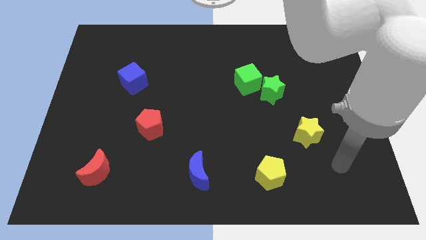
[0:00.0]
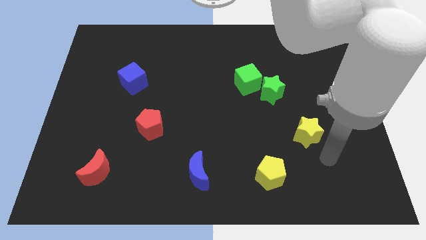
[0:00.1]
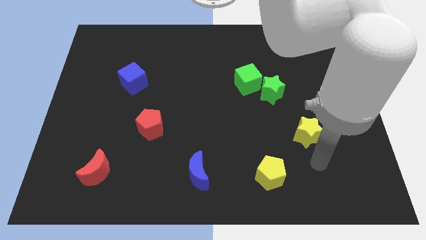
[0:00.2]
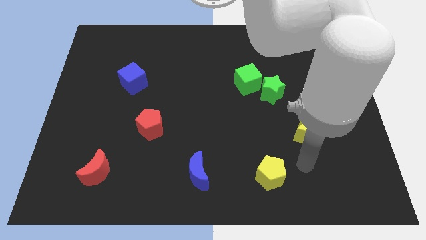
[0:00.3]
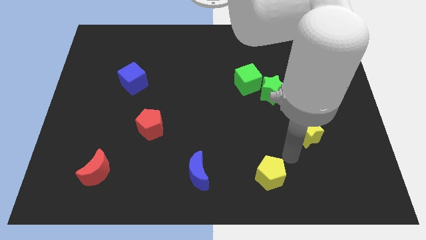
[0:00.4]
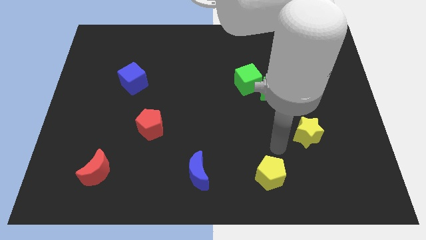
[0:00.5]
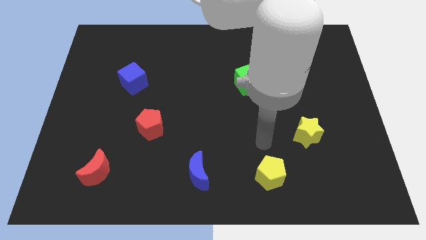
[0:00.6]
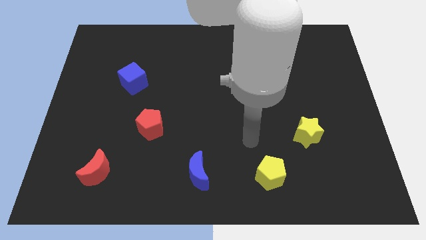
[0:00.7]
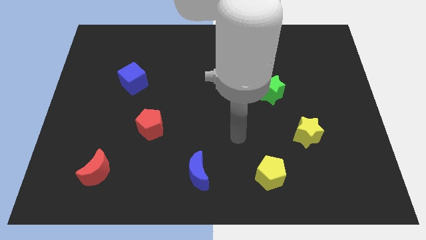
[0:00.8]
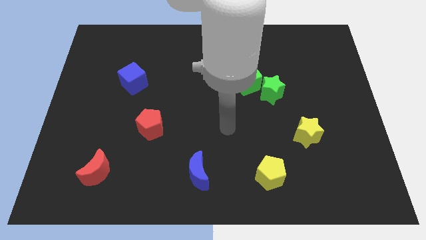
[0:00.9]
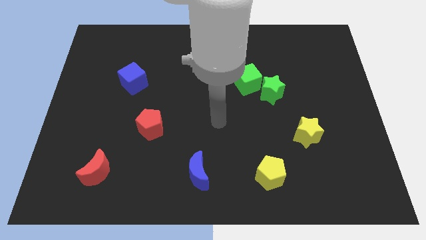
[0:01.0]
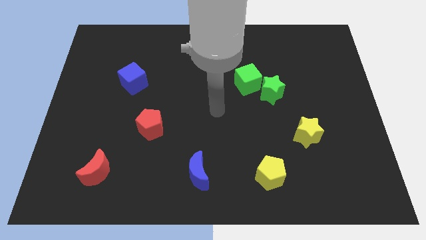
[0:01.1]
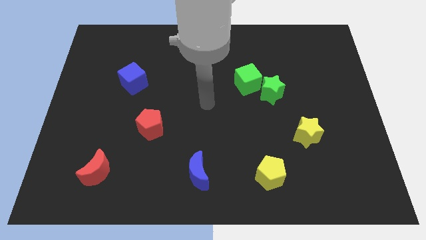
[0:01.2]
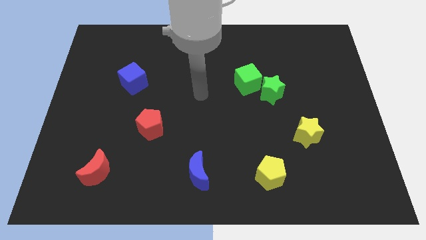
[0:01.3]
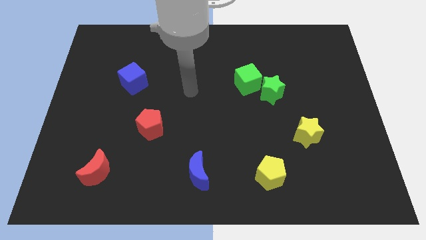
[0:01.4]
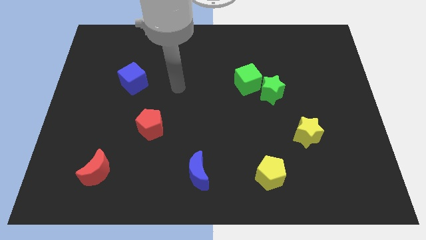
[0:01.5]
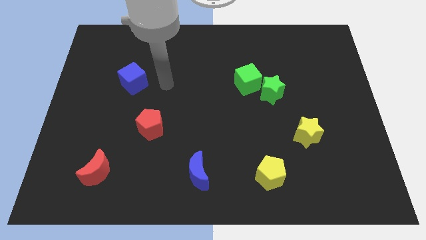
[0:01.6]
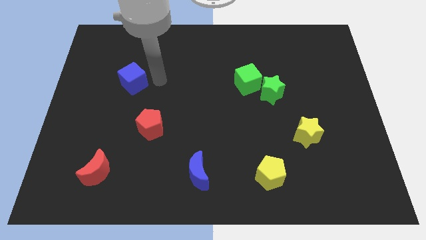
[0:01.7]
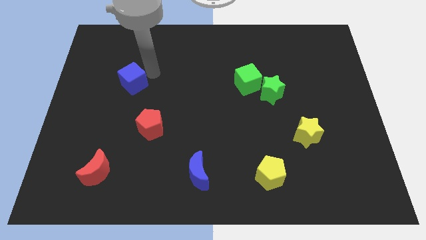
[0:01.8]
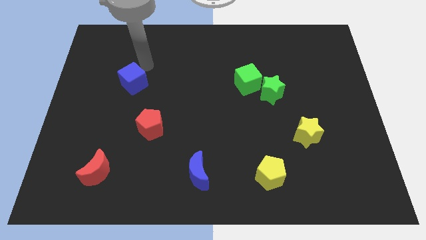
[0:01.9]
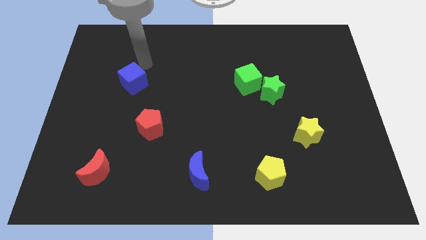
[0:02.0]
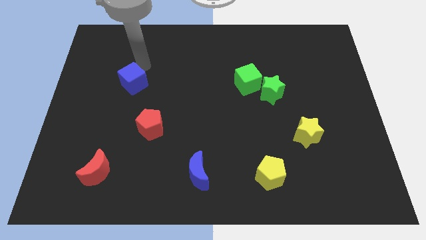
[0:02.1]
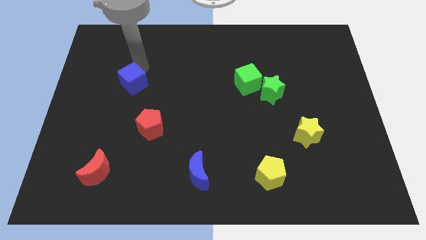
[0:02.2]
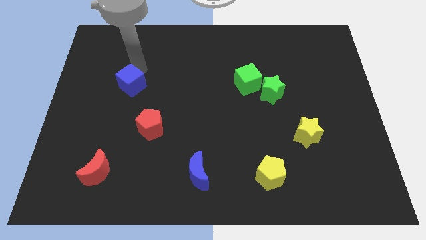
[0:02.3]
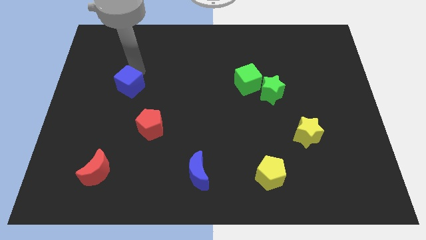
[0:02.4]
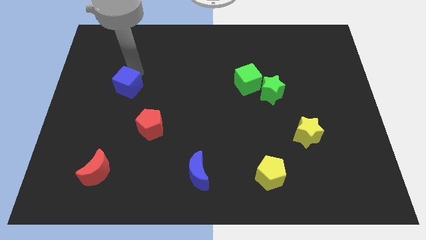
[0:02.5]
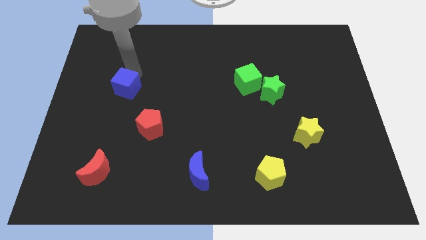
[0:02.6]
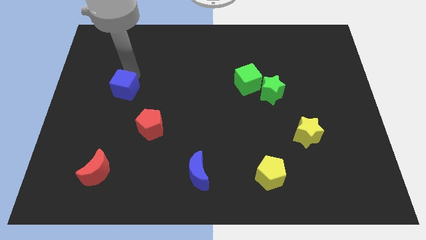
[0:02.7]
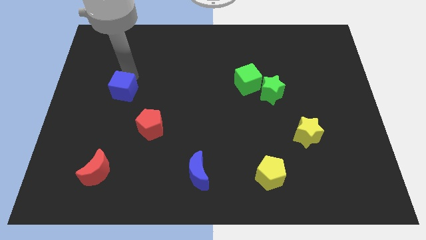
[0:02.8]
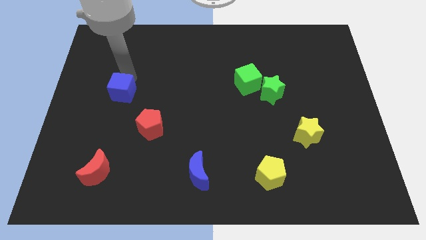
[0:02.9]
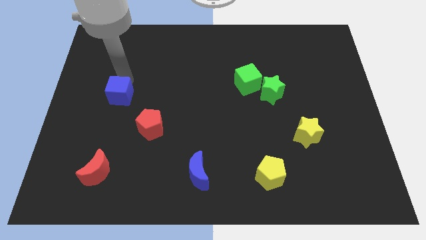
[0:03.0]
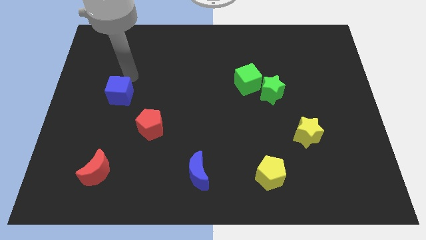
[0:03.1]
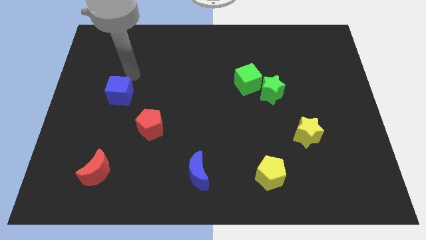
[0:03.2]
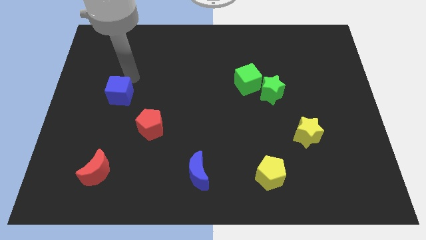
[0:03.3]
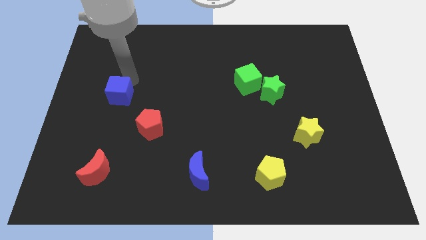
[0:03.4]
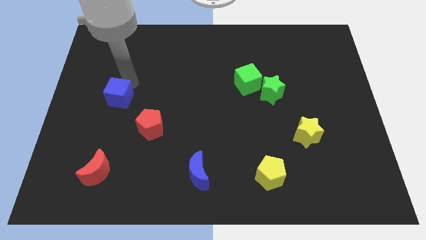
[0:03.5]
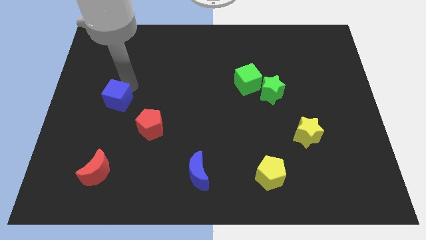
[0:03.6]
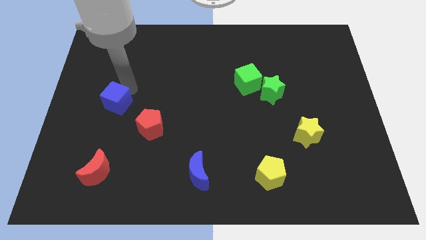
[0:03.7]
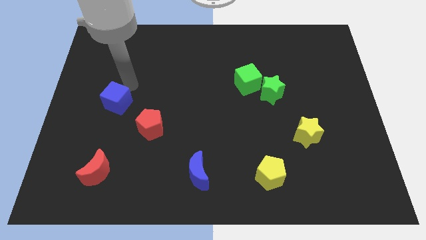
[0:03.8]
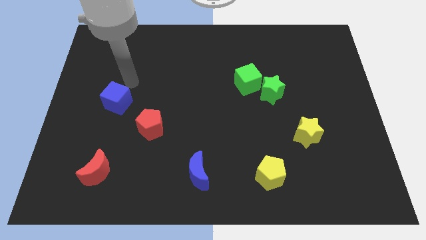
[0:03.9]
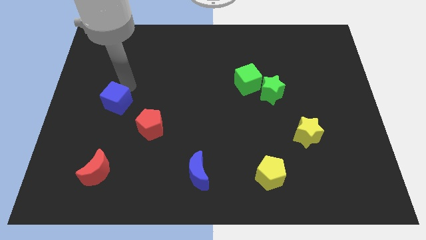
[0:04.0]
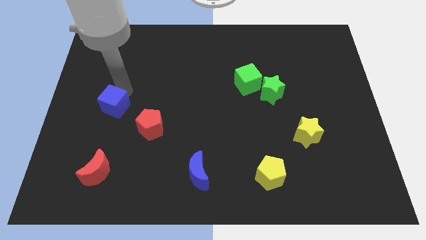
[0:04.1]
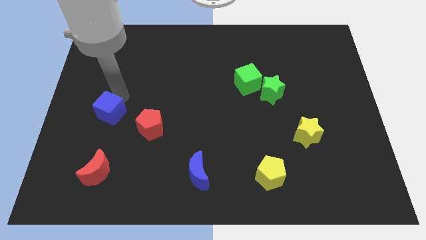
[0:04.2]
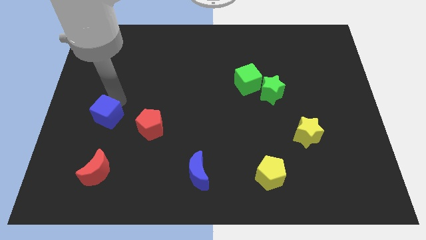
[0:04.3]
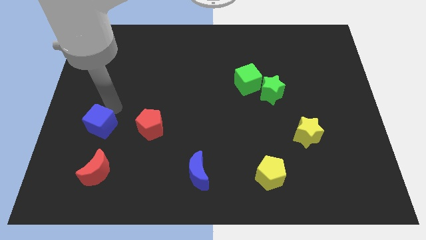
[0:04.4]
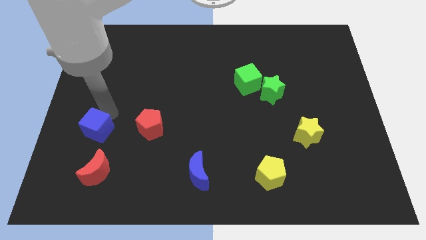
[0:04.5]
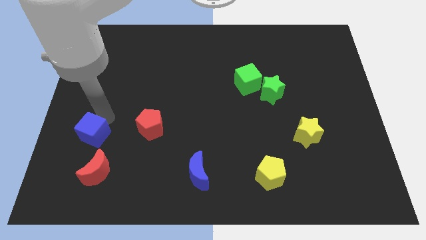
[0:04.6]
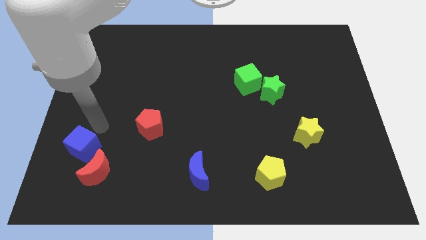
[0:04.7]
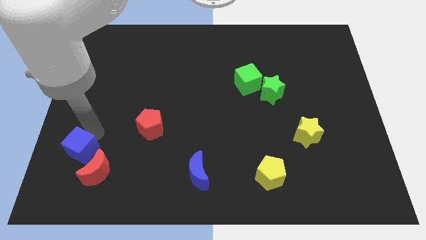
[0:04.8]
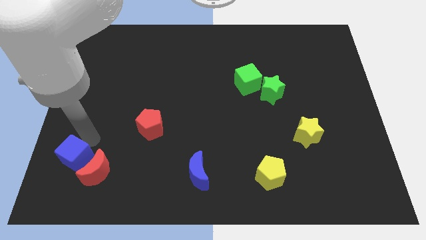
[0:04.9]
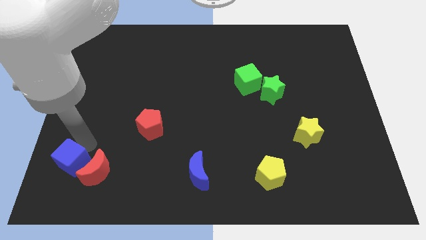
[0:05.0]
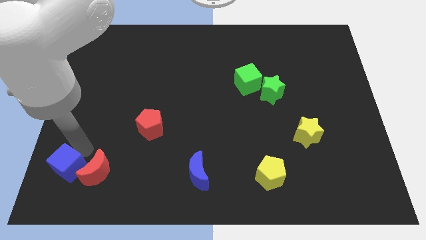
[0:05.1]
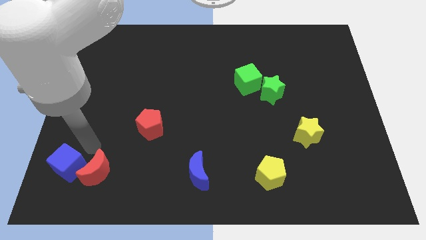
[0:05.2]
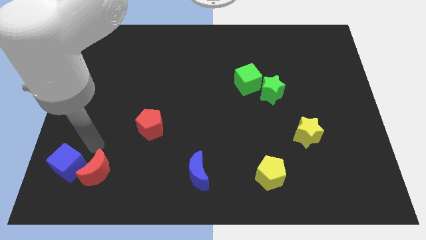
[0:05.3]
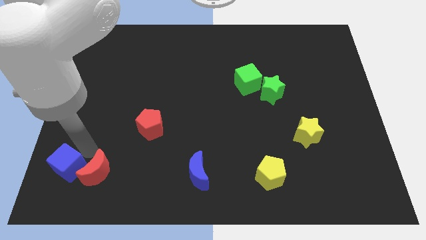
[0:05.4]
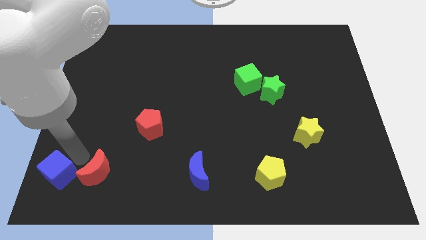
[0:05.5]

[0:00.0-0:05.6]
slide the blue cube to the lower left corner

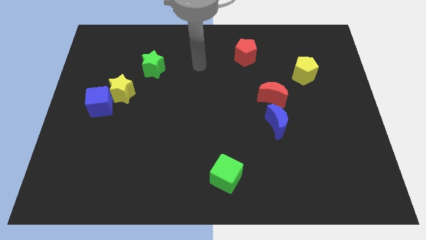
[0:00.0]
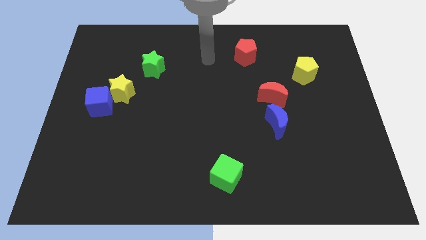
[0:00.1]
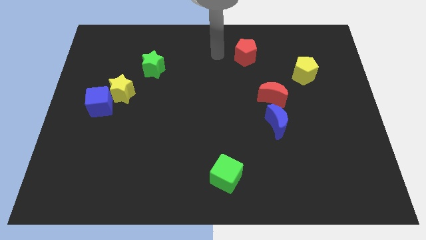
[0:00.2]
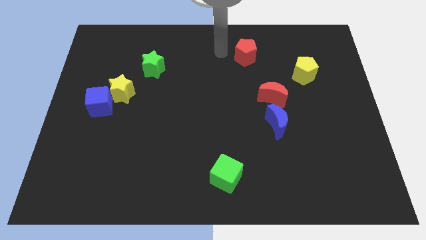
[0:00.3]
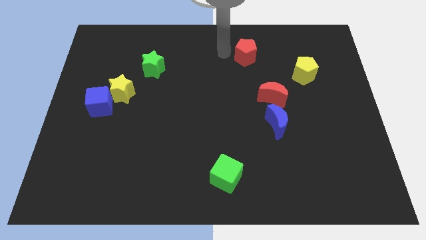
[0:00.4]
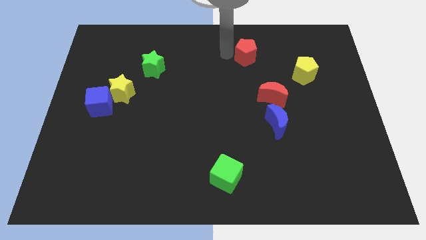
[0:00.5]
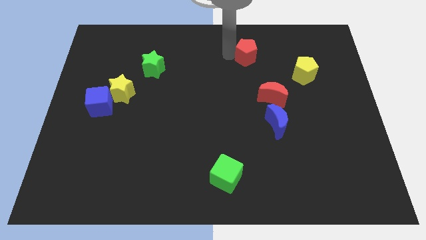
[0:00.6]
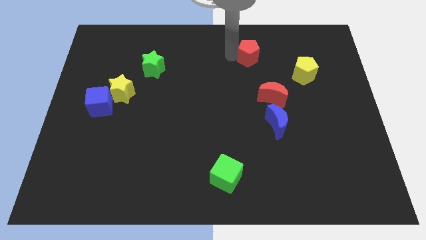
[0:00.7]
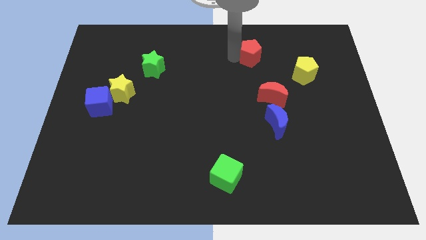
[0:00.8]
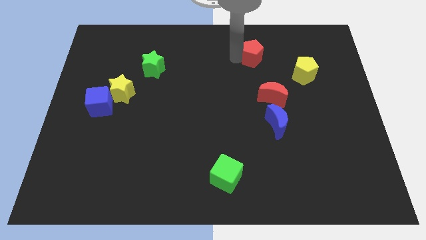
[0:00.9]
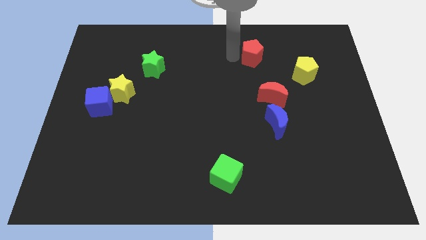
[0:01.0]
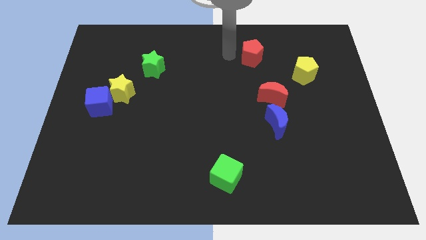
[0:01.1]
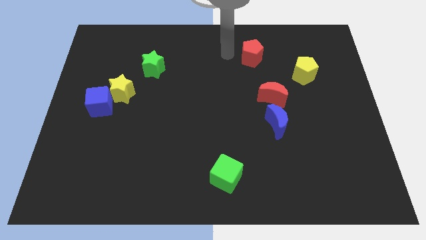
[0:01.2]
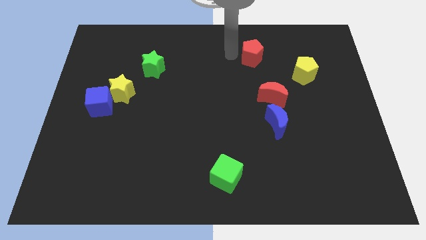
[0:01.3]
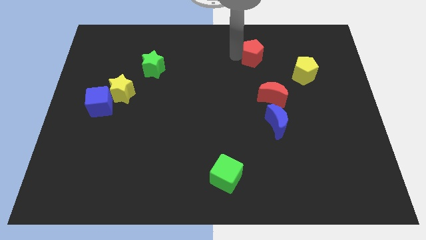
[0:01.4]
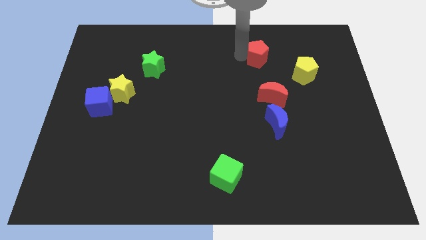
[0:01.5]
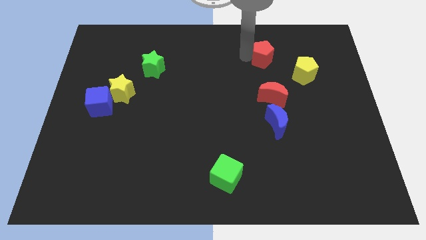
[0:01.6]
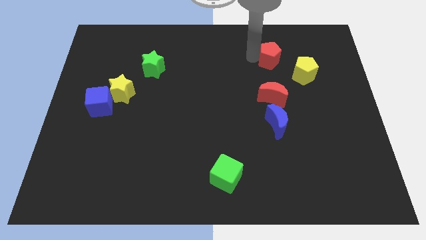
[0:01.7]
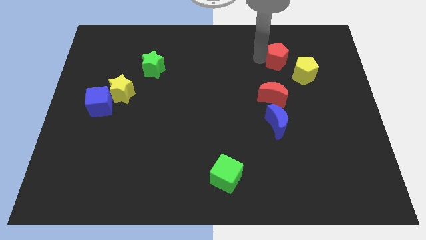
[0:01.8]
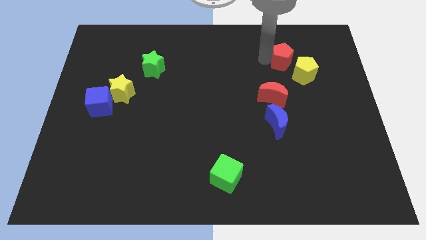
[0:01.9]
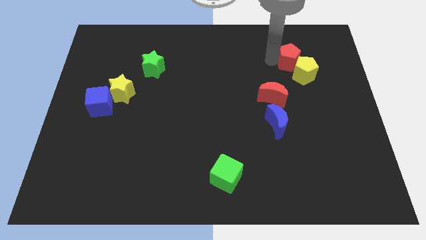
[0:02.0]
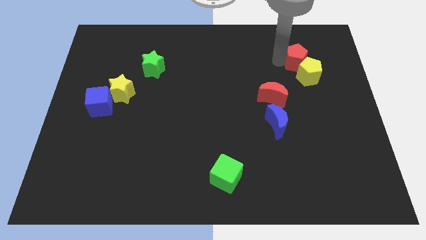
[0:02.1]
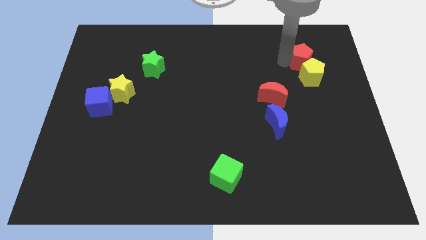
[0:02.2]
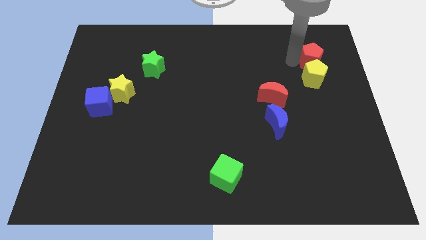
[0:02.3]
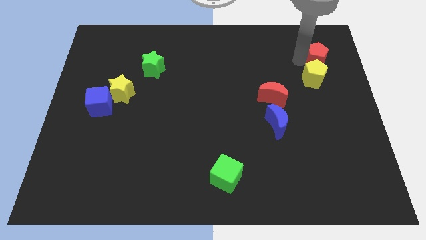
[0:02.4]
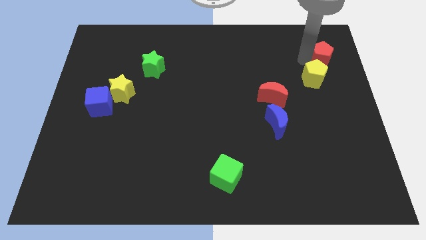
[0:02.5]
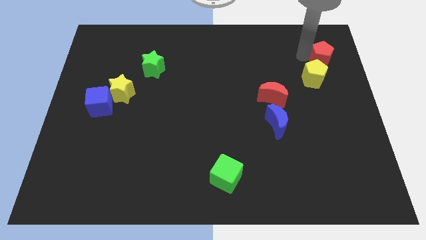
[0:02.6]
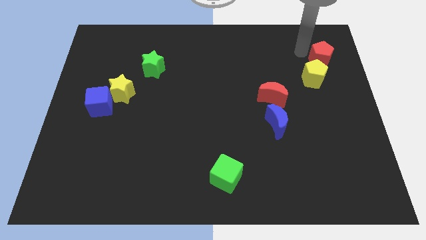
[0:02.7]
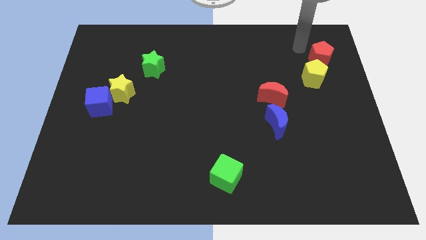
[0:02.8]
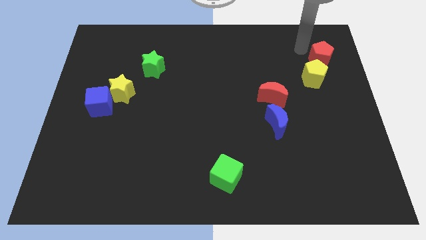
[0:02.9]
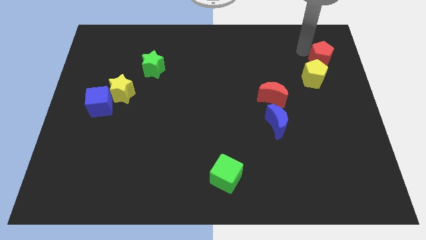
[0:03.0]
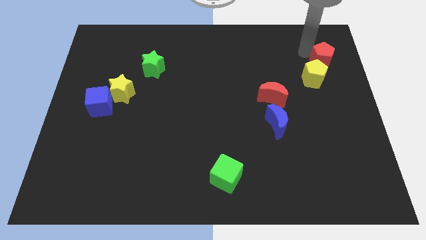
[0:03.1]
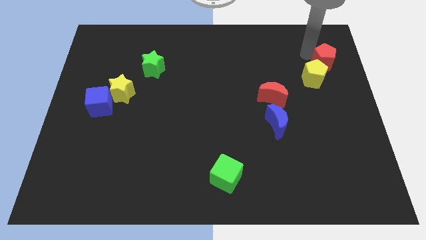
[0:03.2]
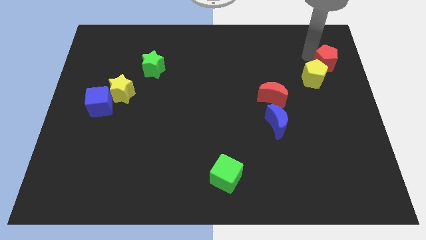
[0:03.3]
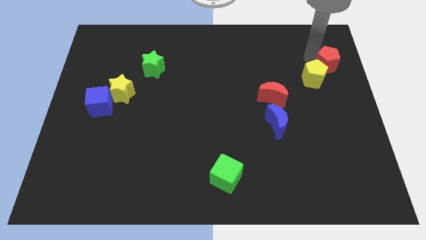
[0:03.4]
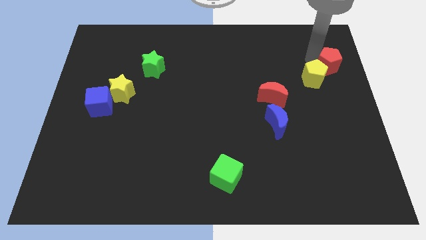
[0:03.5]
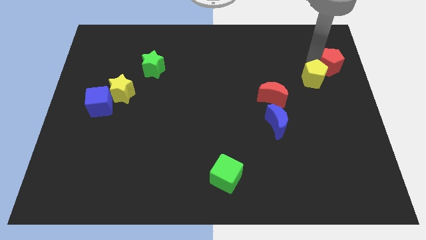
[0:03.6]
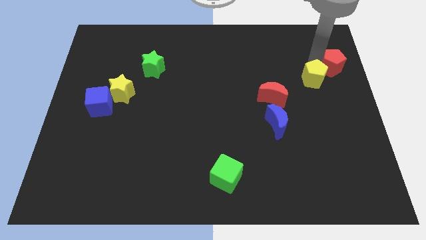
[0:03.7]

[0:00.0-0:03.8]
slide the red pentagon to the right side of the board
